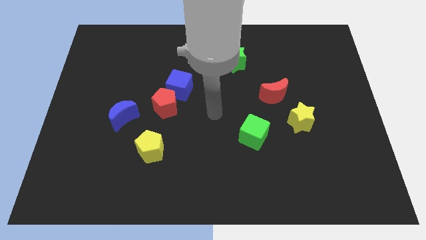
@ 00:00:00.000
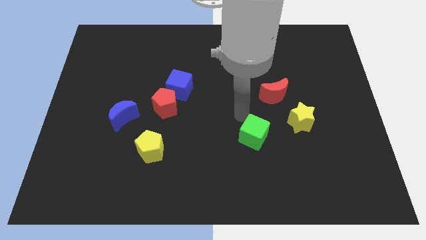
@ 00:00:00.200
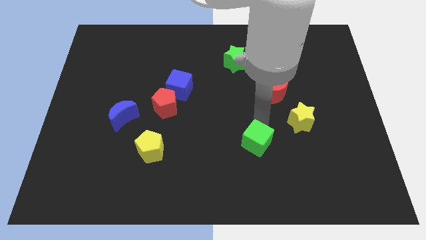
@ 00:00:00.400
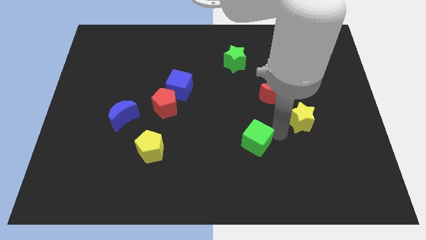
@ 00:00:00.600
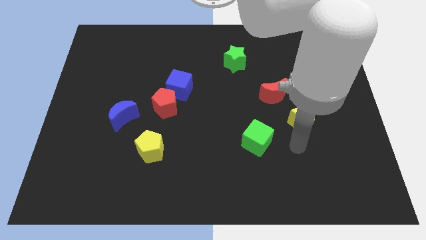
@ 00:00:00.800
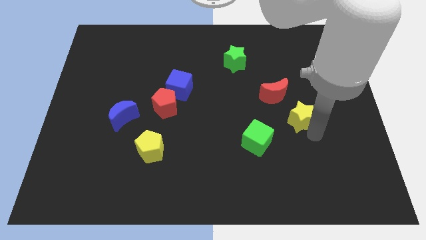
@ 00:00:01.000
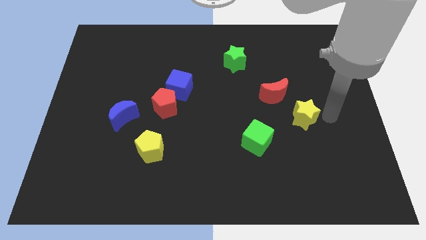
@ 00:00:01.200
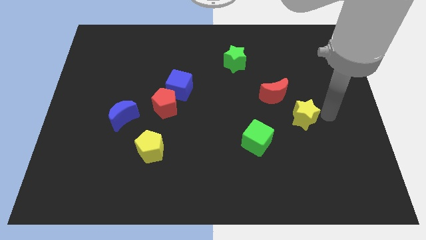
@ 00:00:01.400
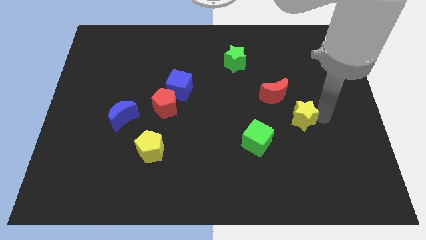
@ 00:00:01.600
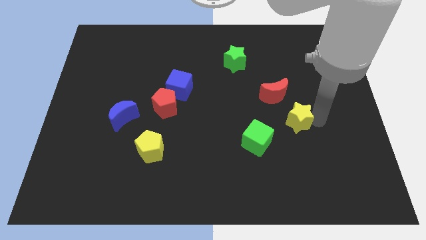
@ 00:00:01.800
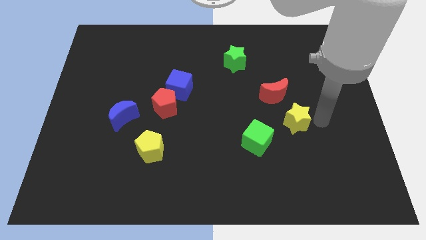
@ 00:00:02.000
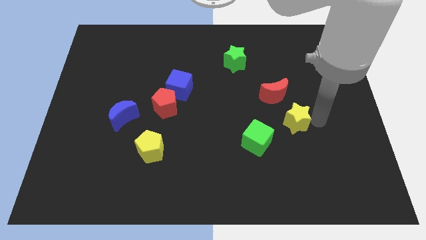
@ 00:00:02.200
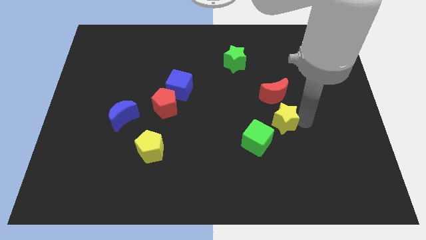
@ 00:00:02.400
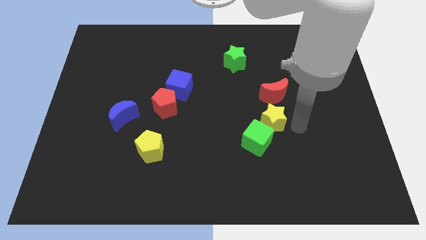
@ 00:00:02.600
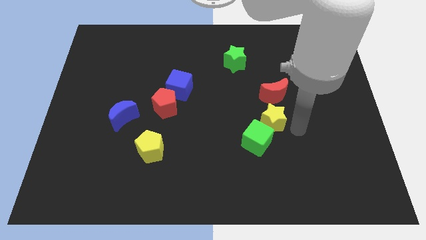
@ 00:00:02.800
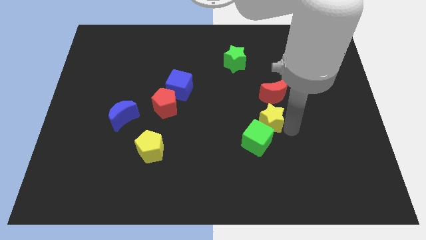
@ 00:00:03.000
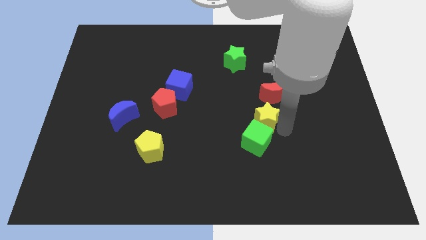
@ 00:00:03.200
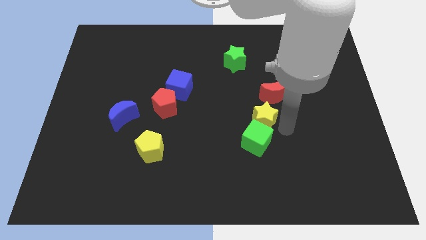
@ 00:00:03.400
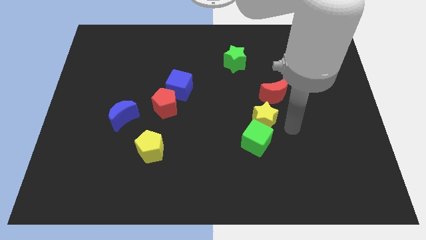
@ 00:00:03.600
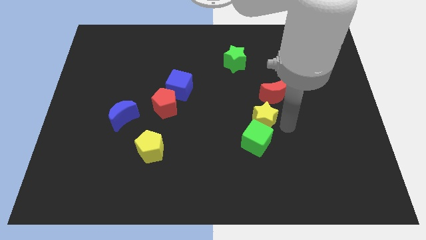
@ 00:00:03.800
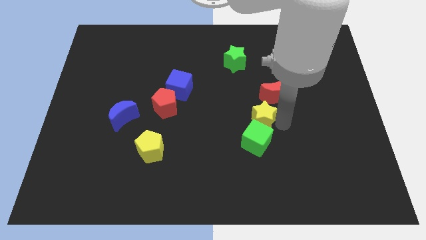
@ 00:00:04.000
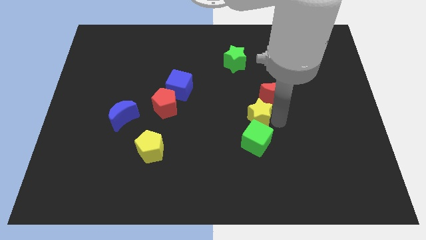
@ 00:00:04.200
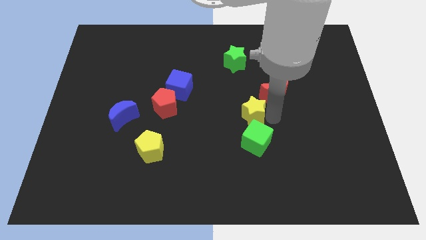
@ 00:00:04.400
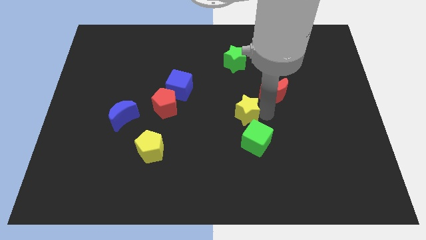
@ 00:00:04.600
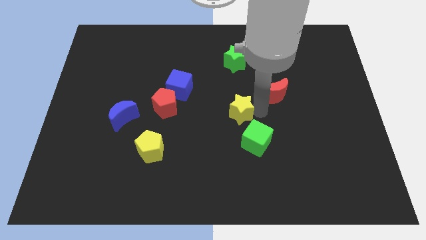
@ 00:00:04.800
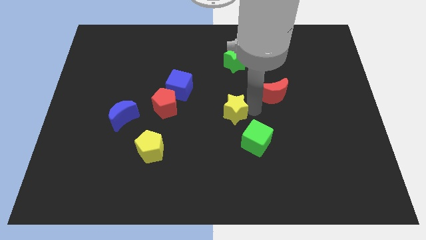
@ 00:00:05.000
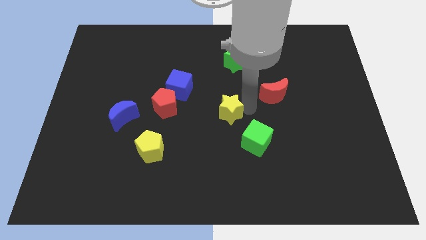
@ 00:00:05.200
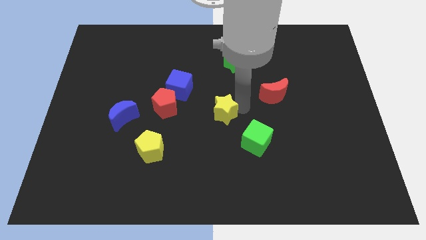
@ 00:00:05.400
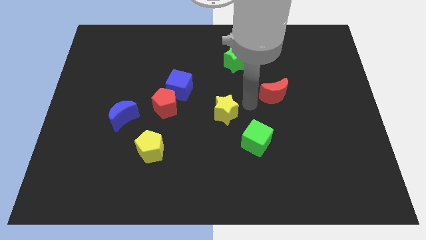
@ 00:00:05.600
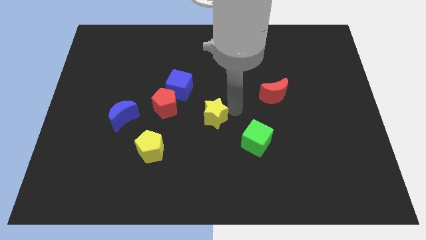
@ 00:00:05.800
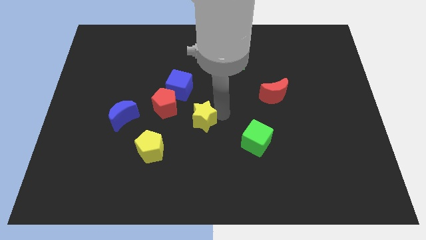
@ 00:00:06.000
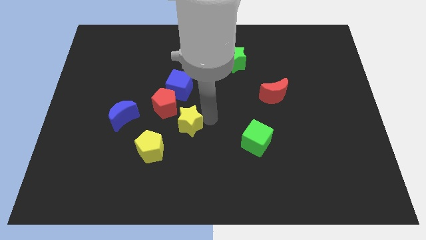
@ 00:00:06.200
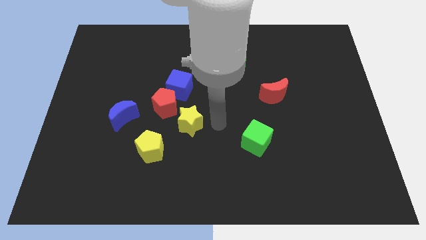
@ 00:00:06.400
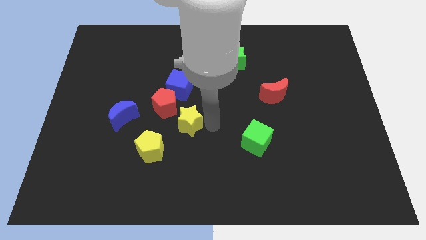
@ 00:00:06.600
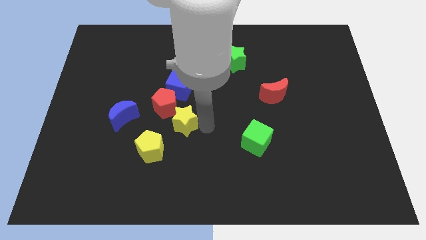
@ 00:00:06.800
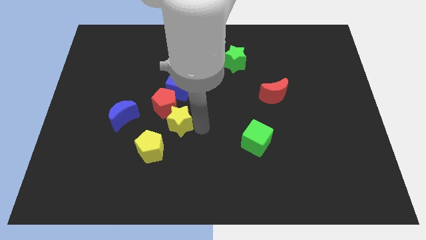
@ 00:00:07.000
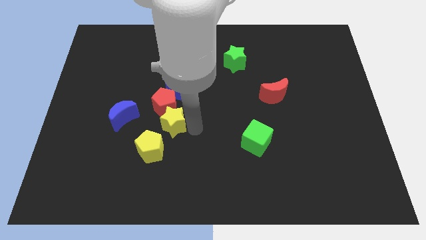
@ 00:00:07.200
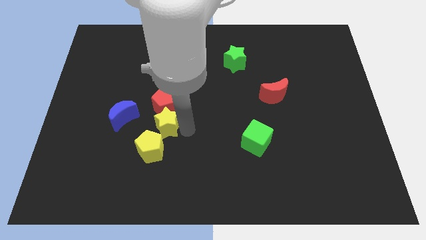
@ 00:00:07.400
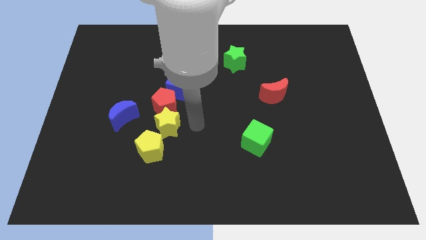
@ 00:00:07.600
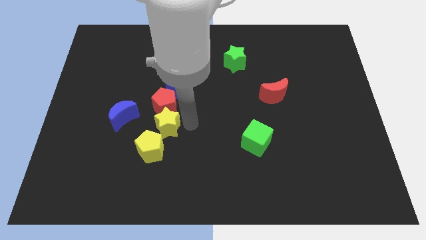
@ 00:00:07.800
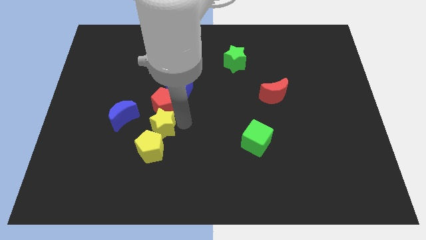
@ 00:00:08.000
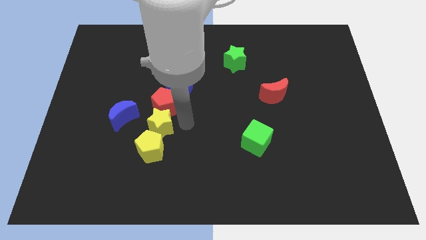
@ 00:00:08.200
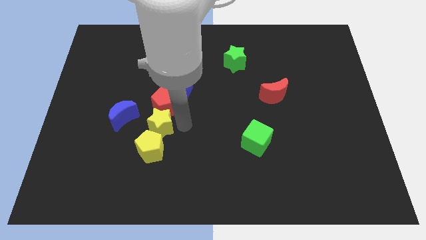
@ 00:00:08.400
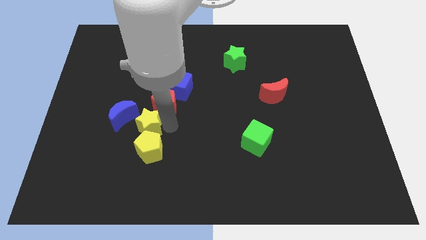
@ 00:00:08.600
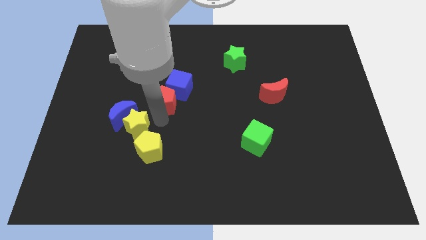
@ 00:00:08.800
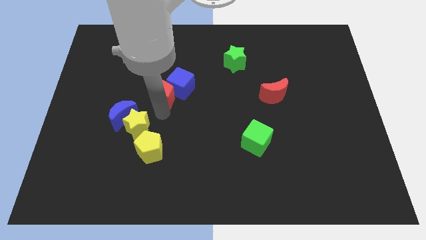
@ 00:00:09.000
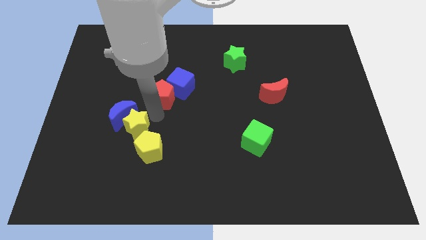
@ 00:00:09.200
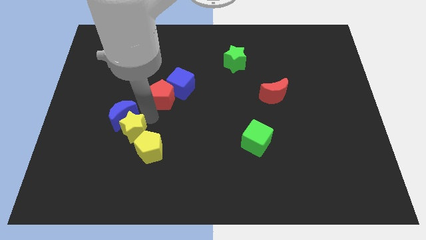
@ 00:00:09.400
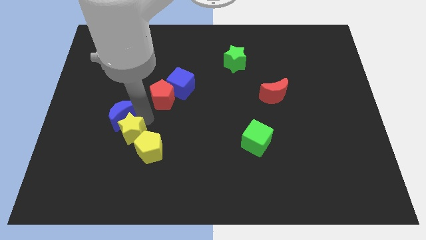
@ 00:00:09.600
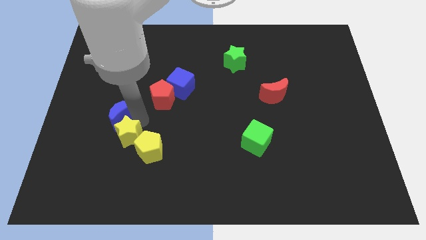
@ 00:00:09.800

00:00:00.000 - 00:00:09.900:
put the yellow star to the bottom left of the blue moon

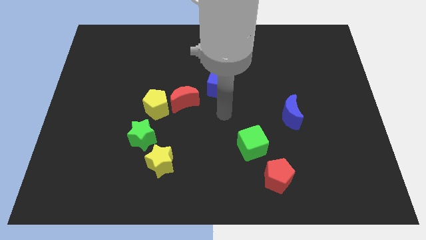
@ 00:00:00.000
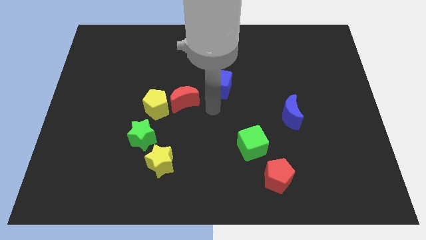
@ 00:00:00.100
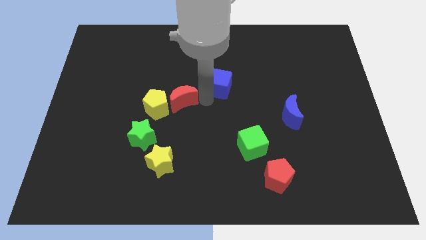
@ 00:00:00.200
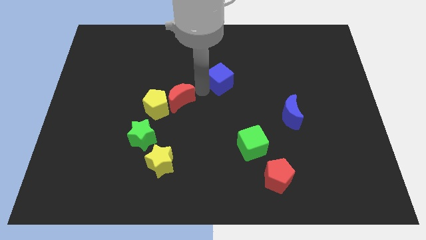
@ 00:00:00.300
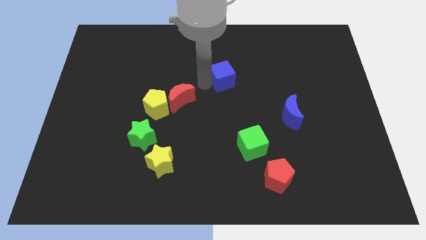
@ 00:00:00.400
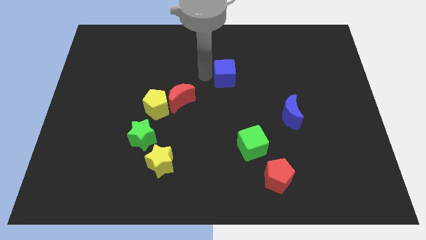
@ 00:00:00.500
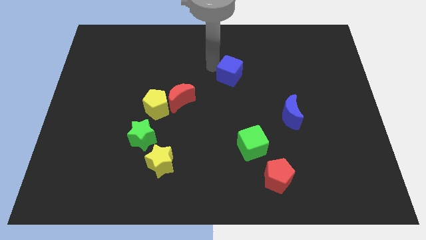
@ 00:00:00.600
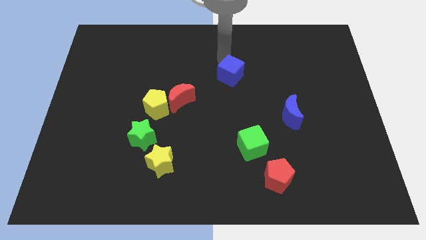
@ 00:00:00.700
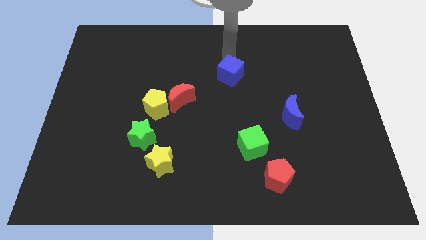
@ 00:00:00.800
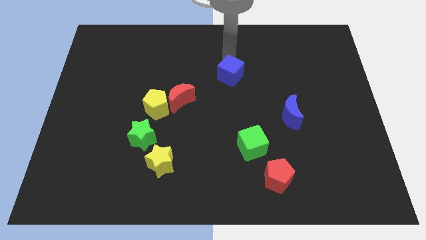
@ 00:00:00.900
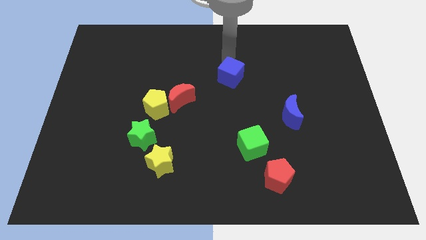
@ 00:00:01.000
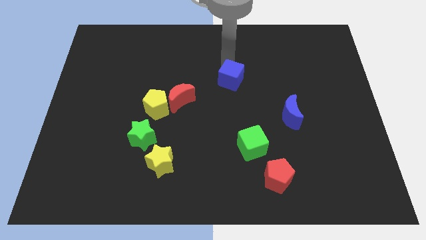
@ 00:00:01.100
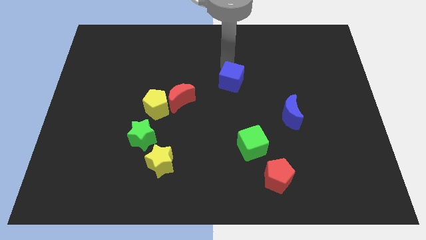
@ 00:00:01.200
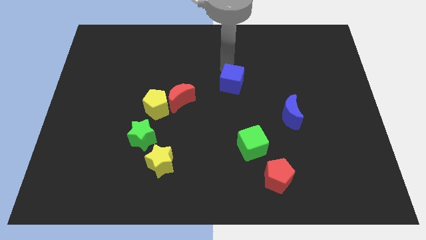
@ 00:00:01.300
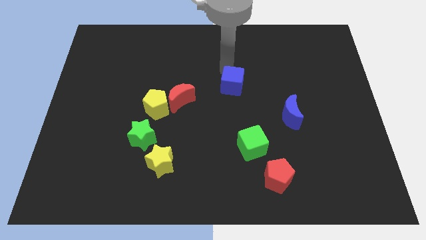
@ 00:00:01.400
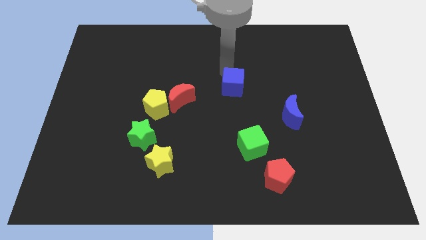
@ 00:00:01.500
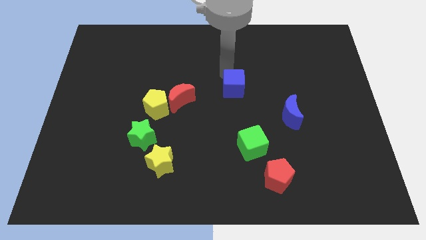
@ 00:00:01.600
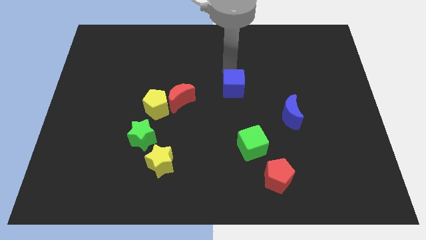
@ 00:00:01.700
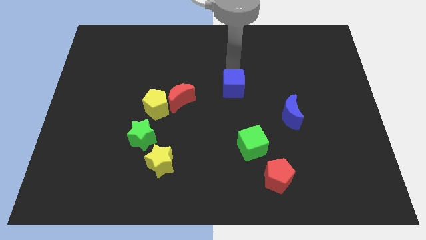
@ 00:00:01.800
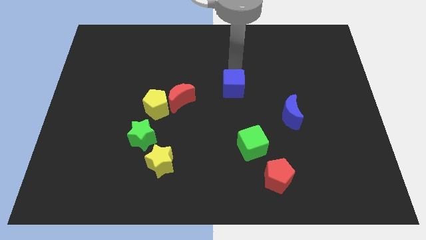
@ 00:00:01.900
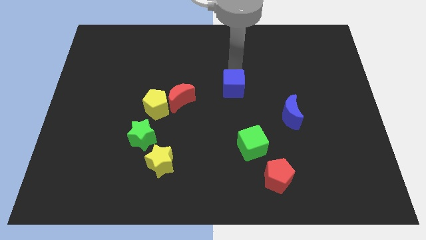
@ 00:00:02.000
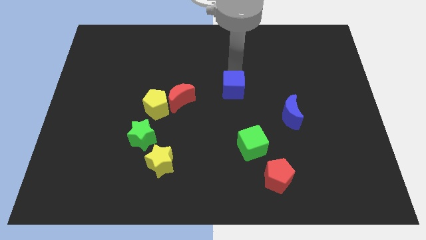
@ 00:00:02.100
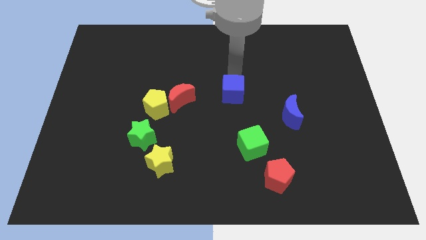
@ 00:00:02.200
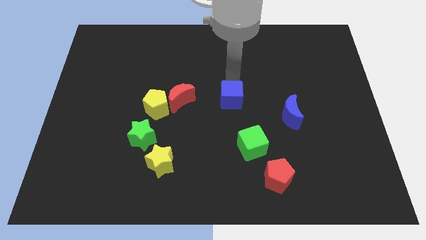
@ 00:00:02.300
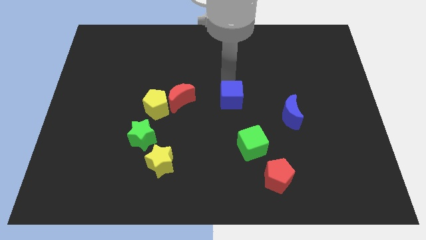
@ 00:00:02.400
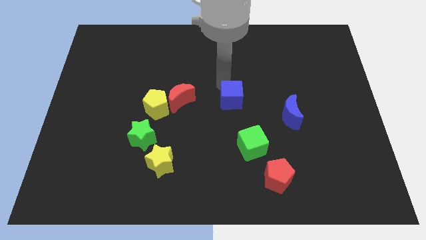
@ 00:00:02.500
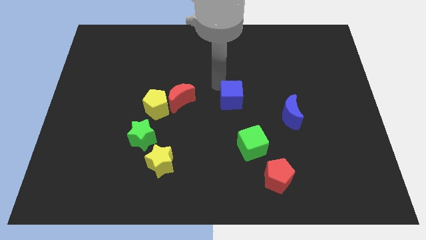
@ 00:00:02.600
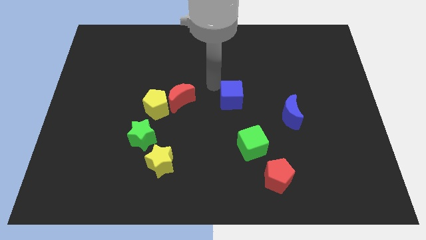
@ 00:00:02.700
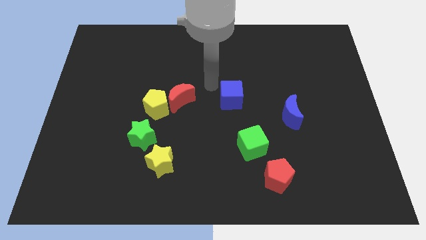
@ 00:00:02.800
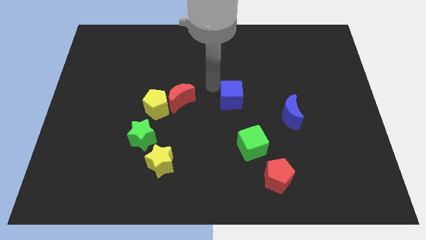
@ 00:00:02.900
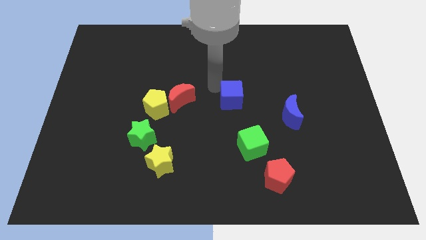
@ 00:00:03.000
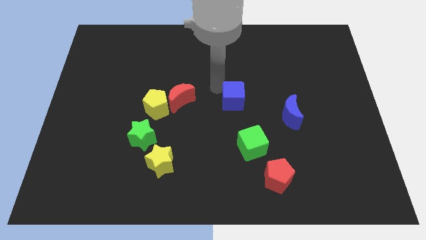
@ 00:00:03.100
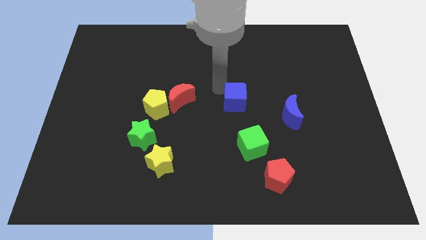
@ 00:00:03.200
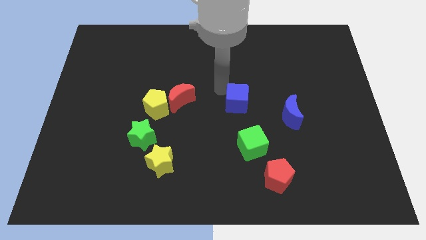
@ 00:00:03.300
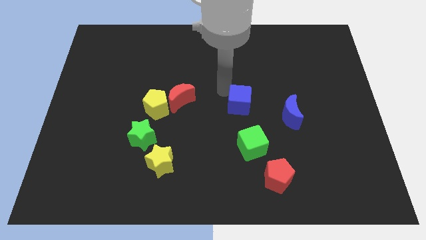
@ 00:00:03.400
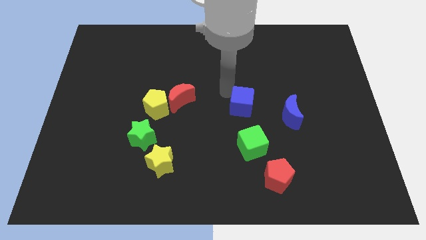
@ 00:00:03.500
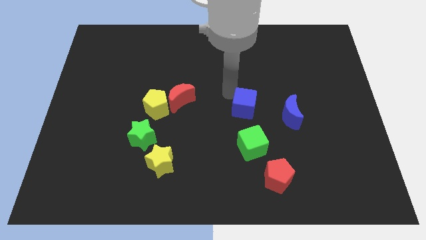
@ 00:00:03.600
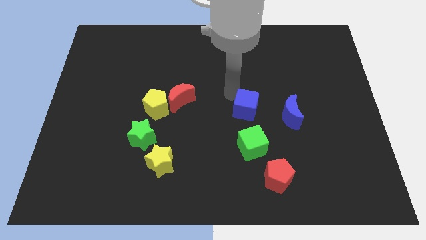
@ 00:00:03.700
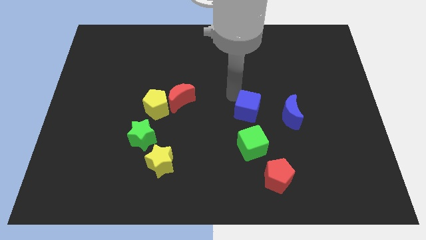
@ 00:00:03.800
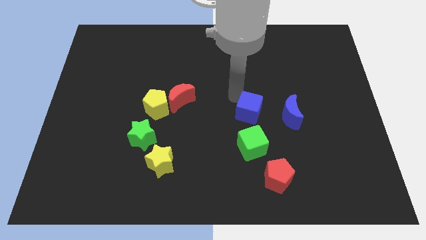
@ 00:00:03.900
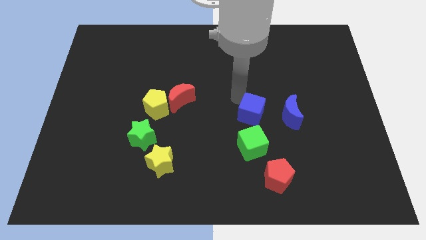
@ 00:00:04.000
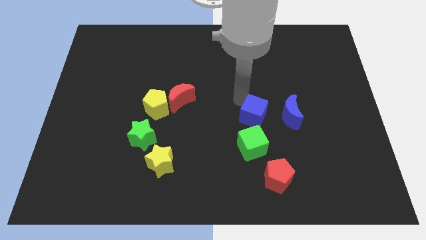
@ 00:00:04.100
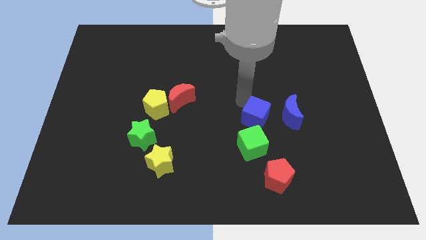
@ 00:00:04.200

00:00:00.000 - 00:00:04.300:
slide the blue cube to the top right side of the green cube
